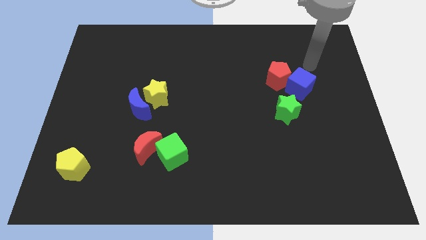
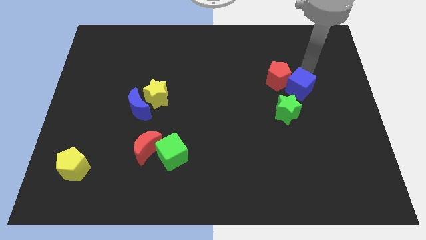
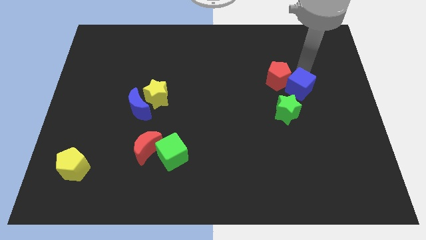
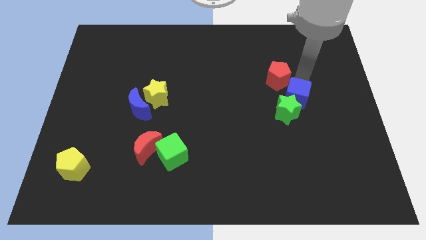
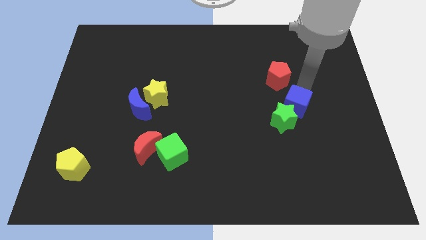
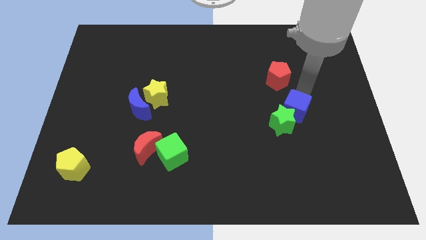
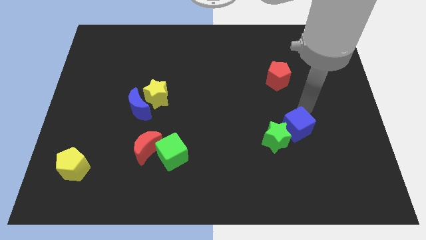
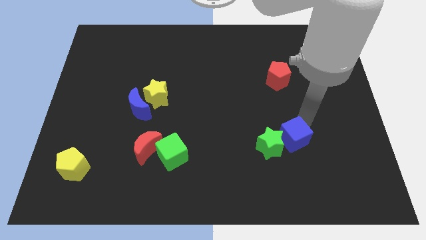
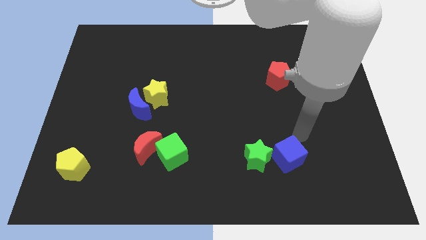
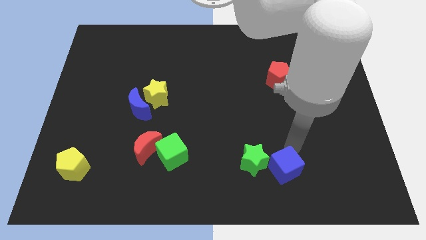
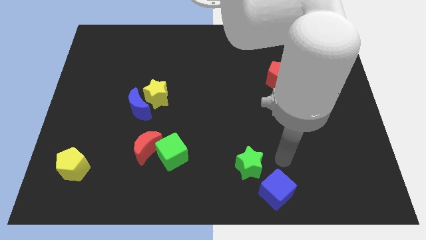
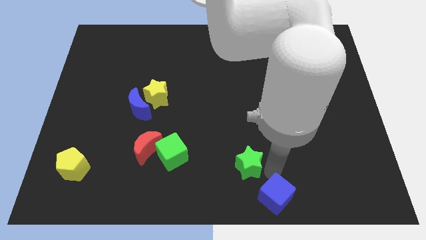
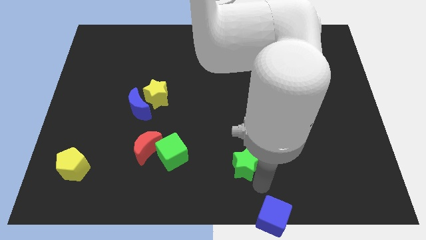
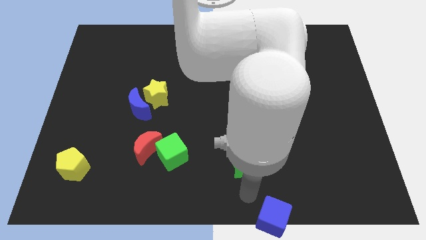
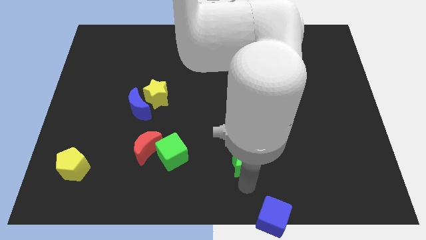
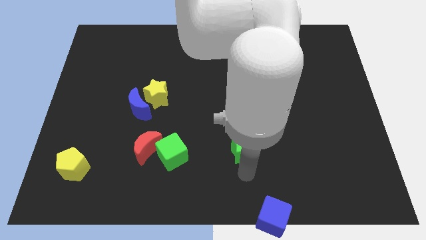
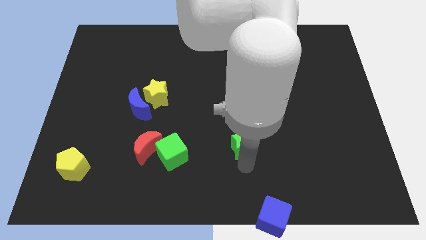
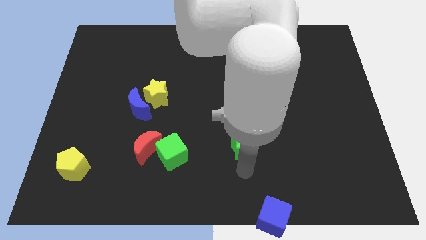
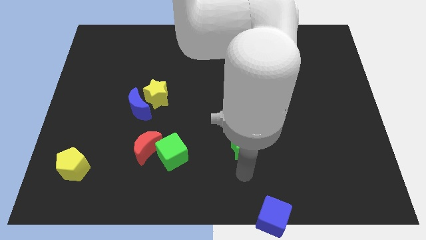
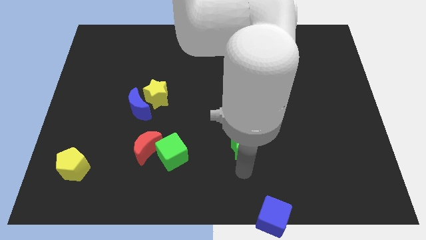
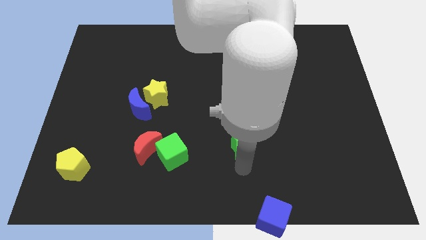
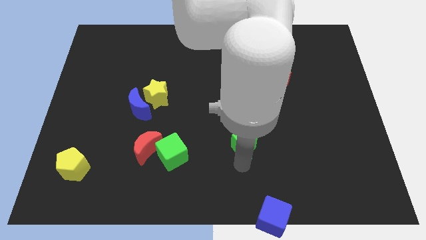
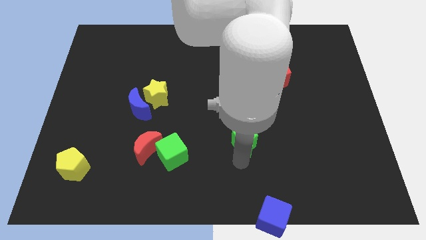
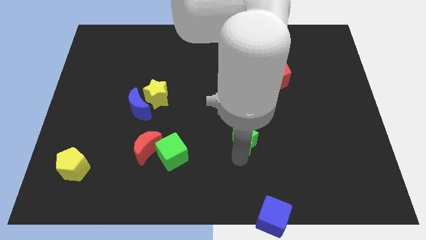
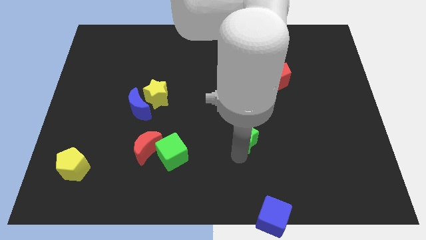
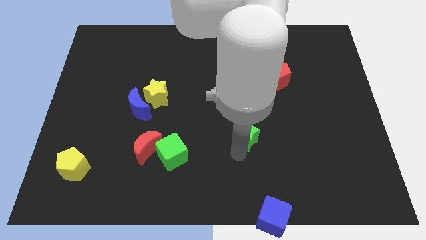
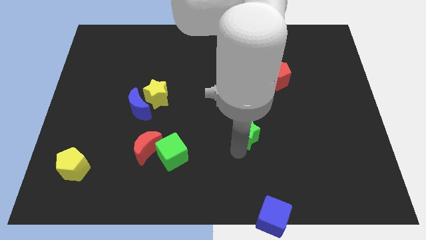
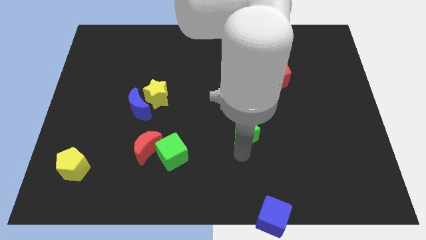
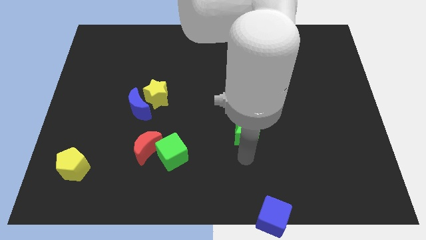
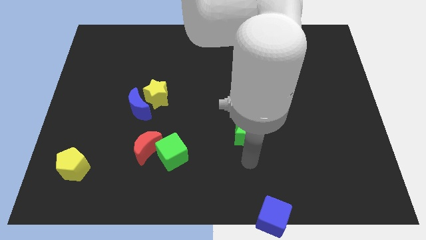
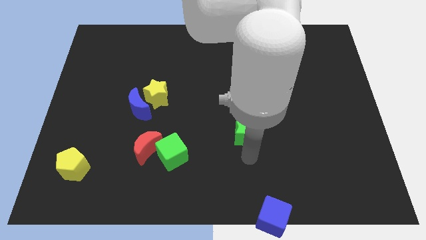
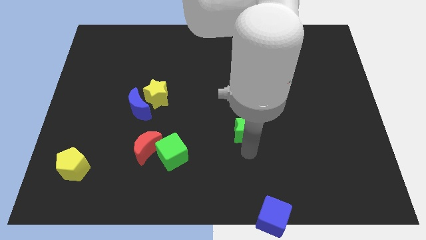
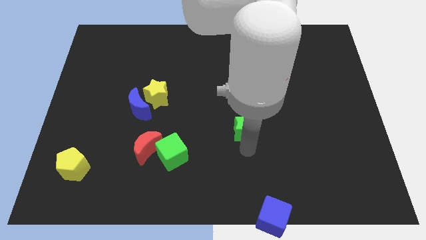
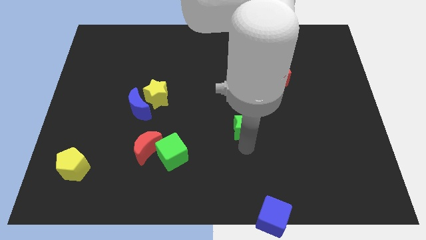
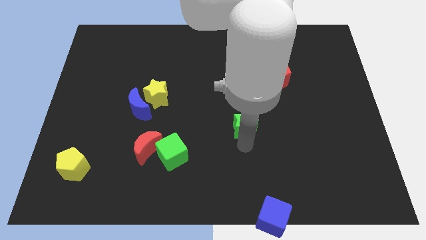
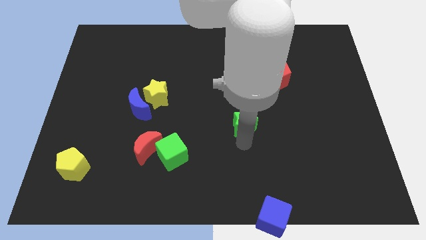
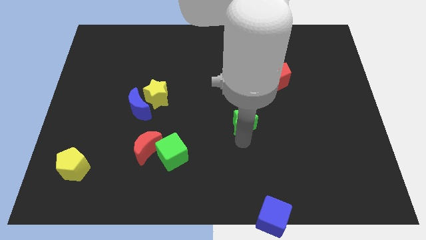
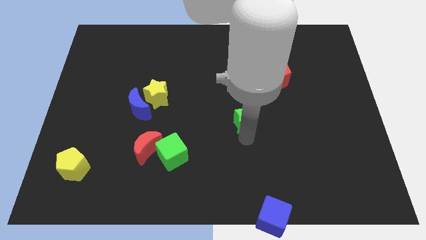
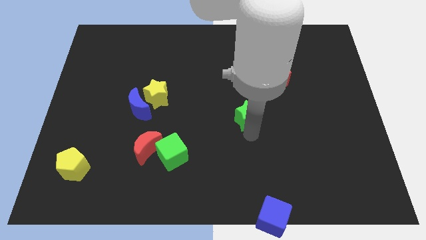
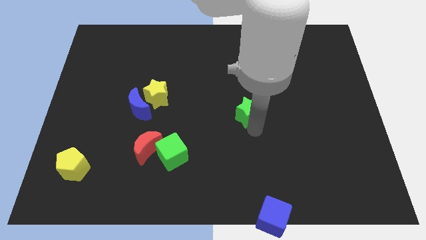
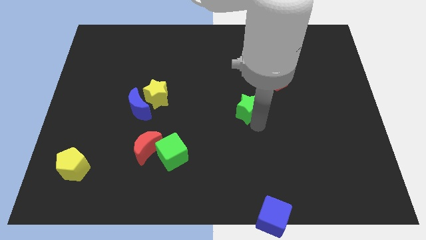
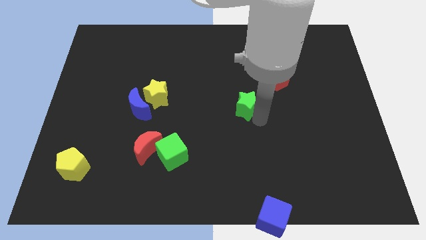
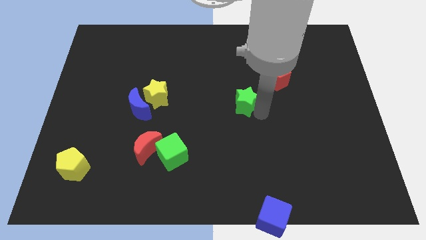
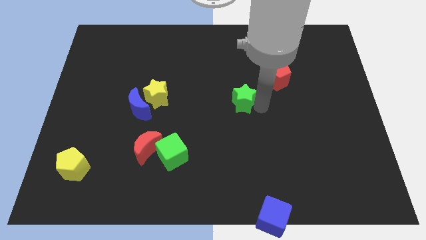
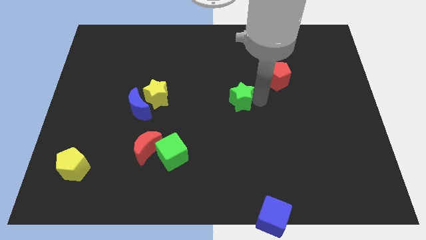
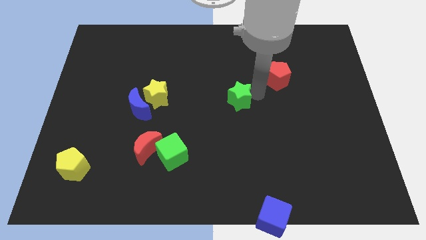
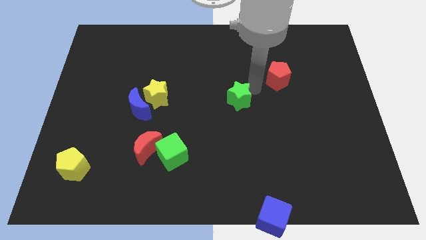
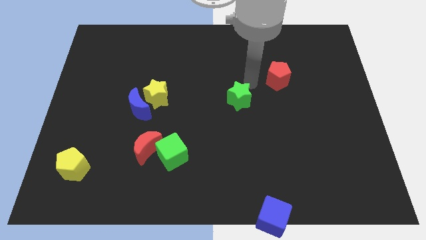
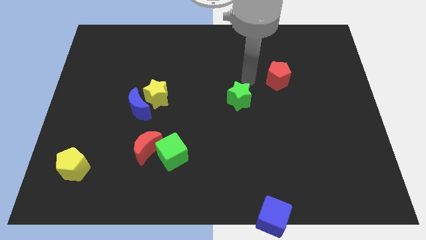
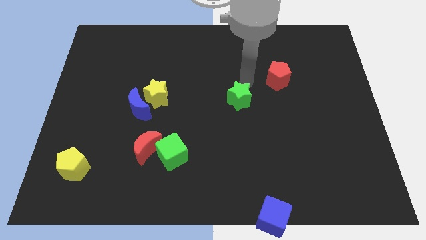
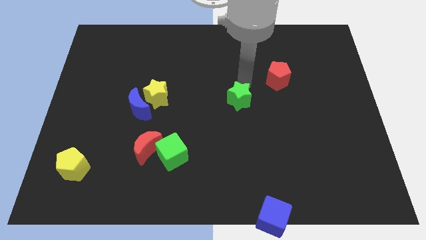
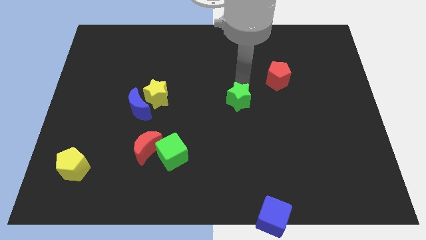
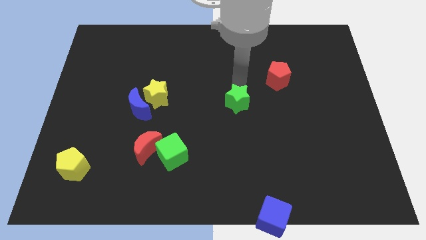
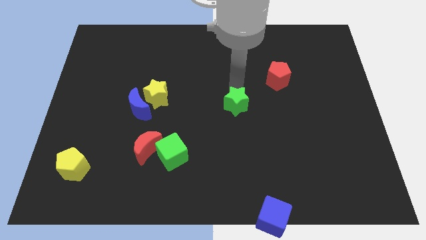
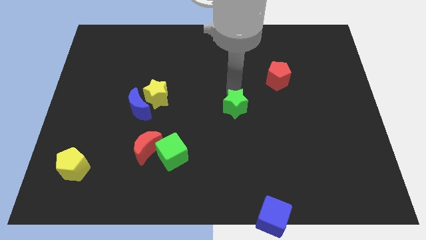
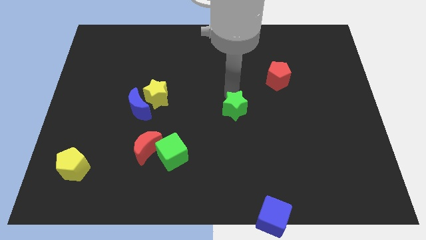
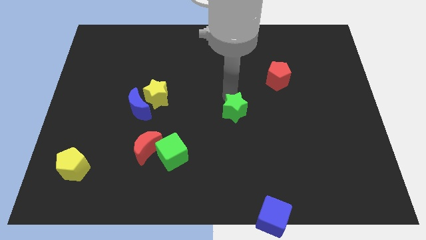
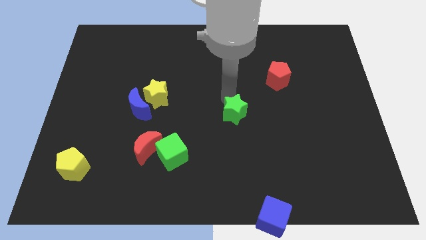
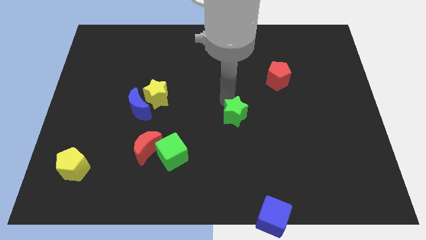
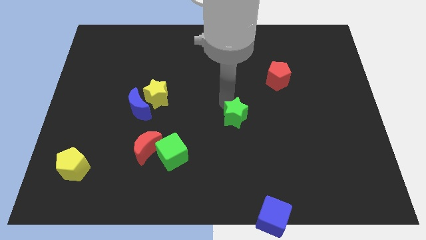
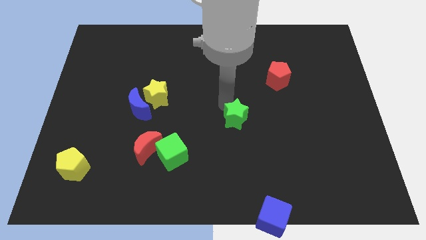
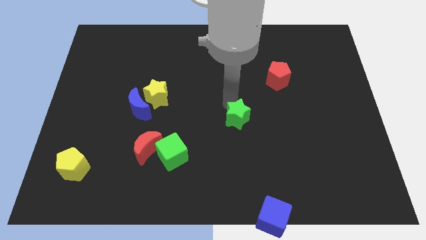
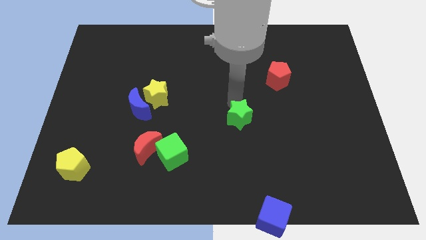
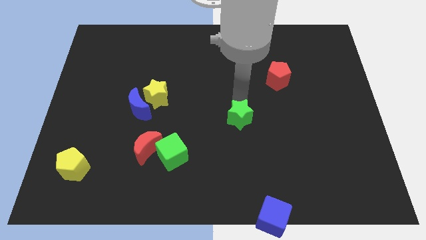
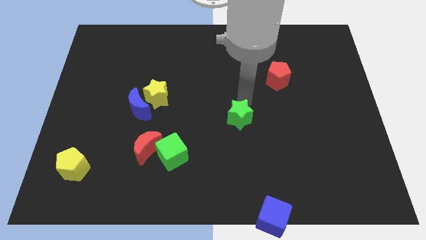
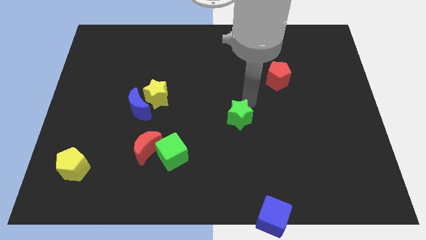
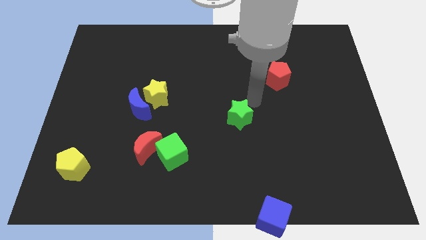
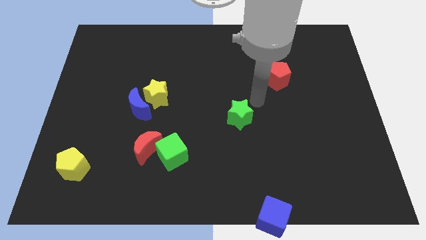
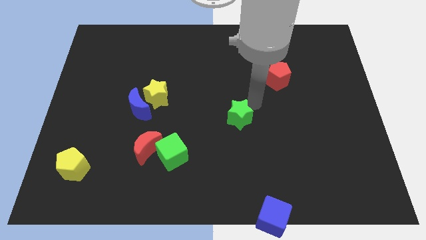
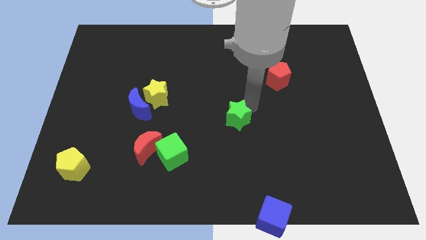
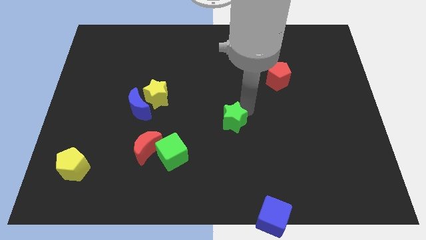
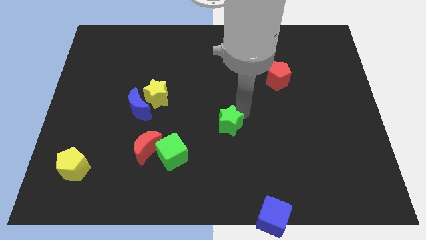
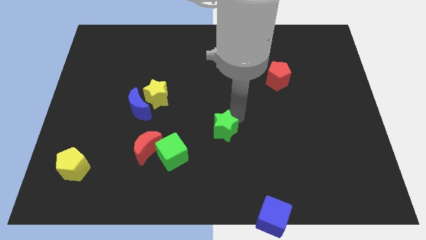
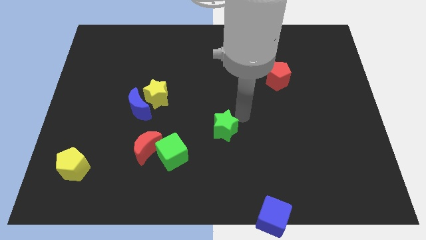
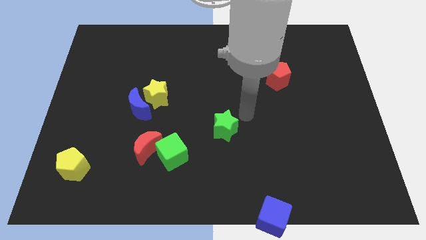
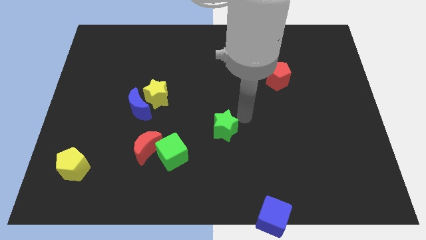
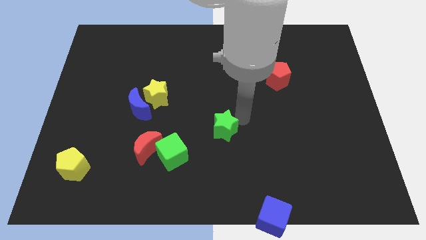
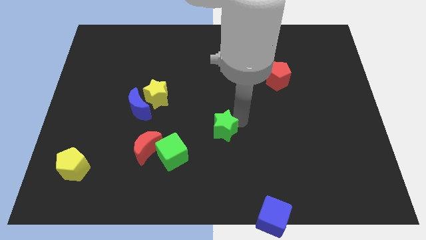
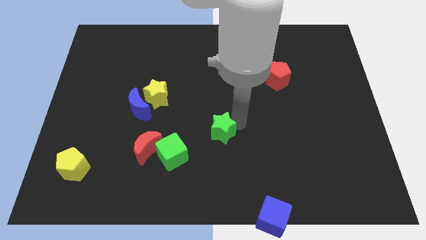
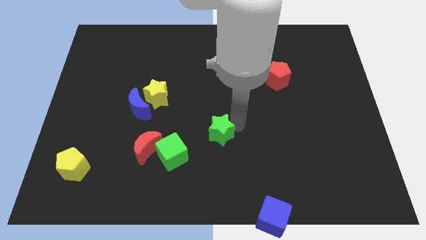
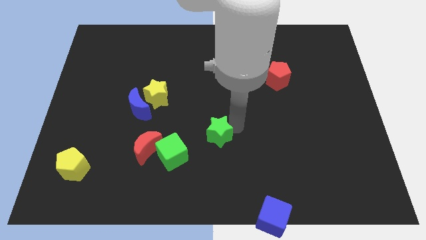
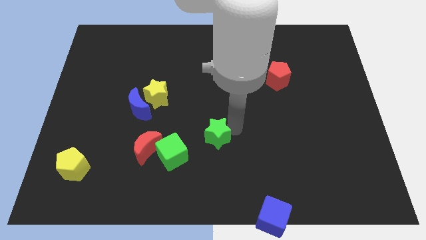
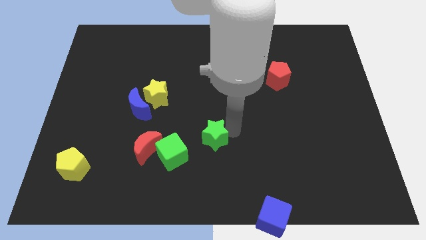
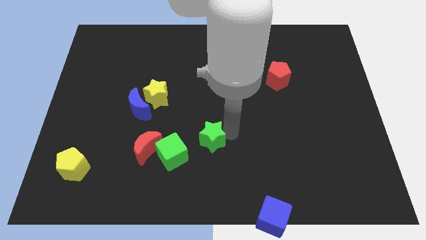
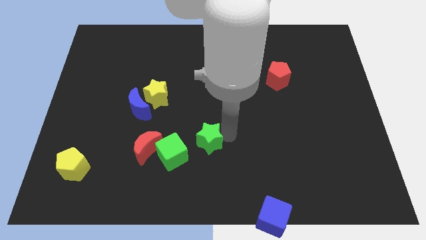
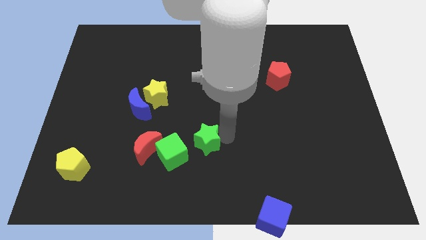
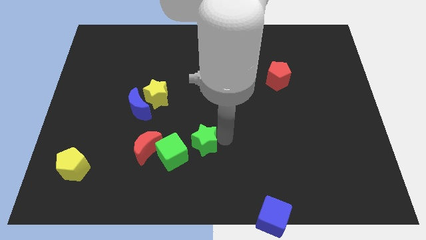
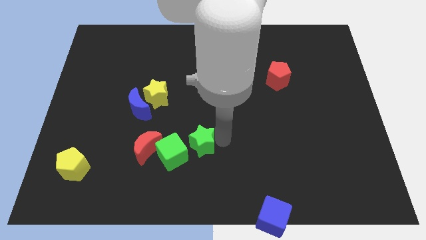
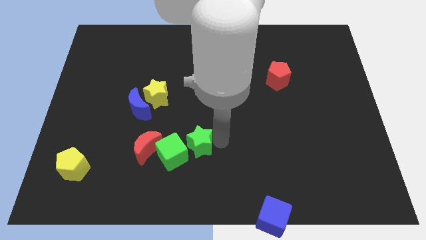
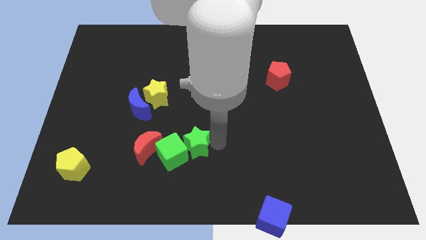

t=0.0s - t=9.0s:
push the green star to the green cube
